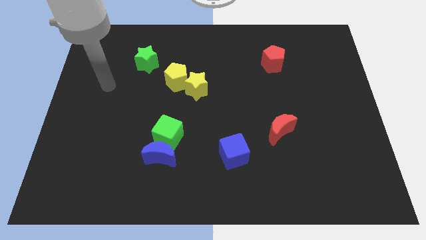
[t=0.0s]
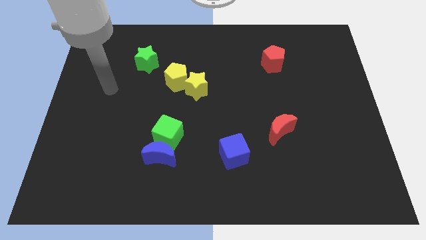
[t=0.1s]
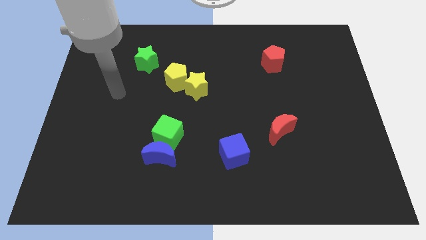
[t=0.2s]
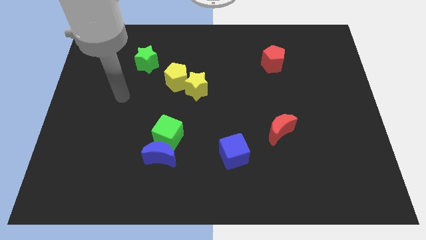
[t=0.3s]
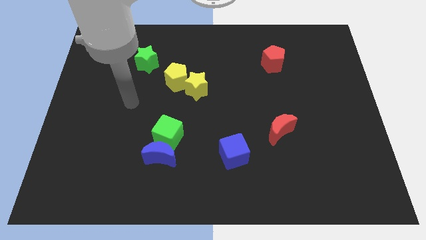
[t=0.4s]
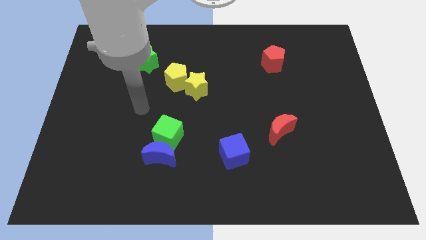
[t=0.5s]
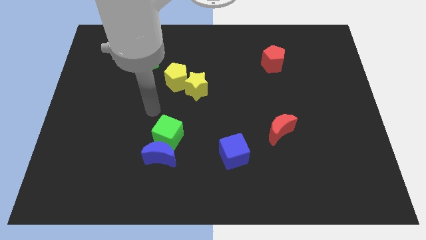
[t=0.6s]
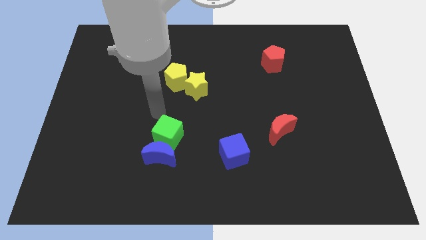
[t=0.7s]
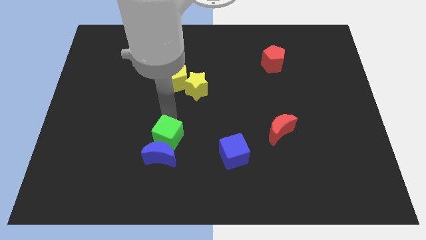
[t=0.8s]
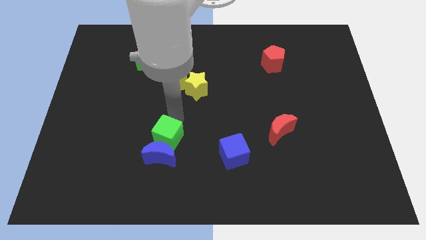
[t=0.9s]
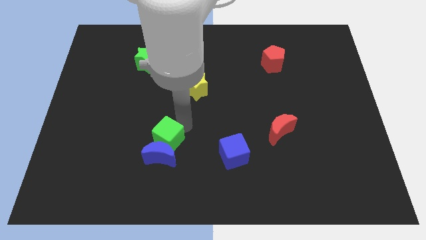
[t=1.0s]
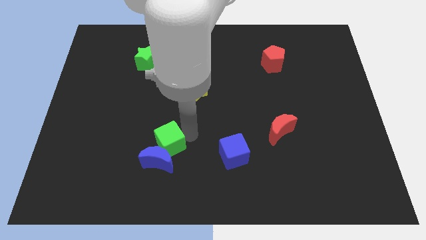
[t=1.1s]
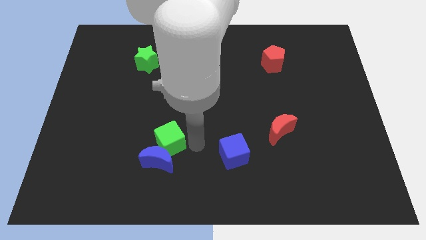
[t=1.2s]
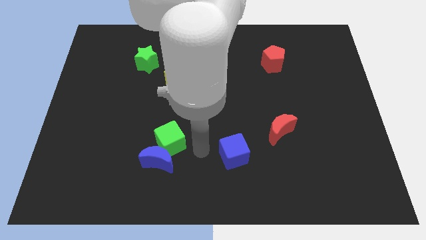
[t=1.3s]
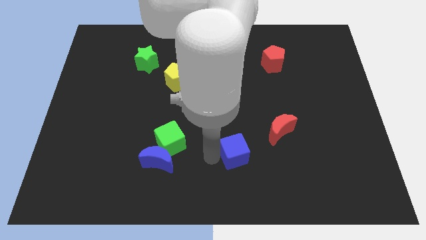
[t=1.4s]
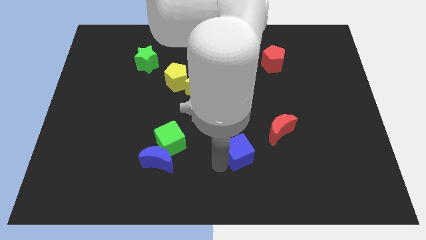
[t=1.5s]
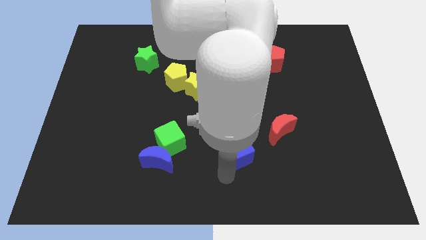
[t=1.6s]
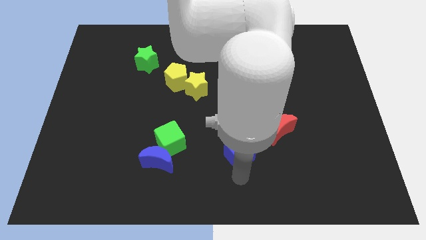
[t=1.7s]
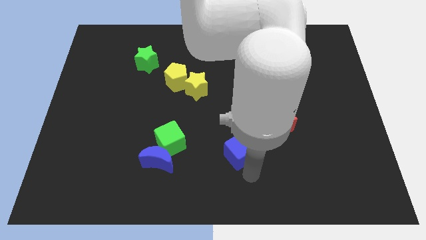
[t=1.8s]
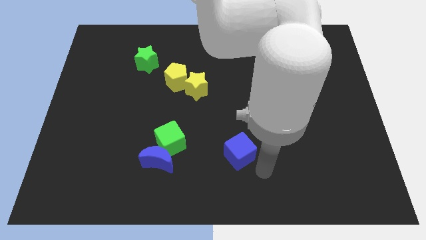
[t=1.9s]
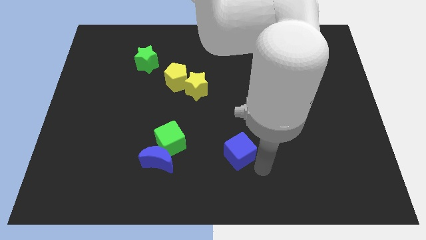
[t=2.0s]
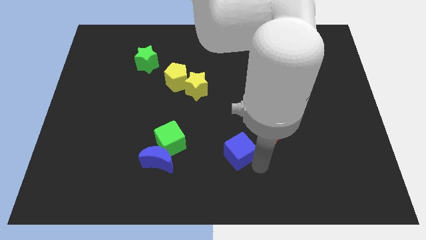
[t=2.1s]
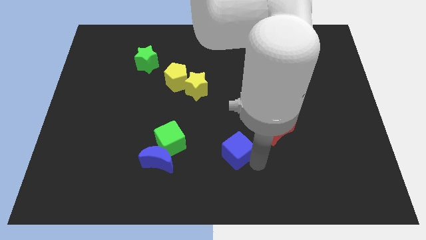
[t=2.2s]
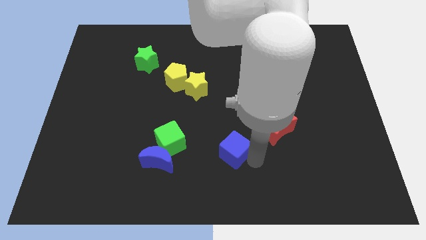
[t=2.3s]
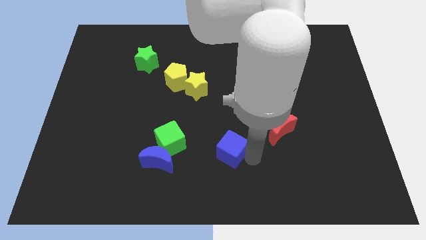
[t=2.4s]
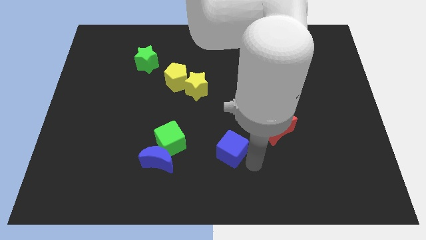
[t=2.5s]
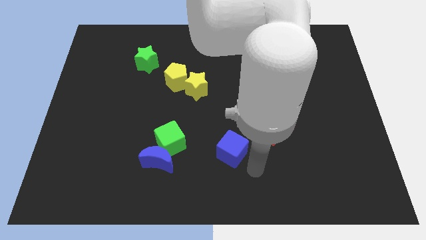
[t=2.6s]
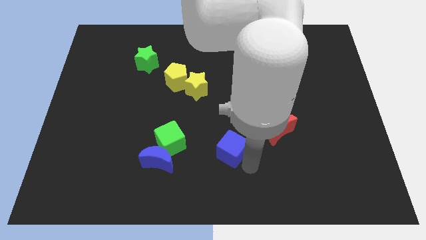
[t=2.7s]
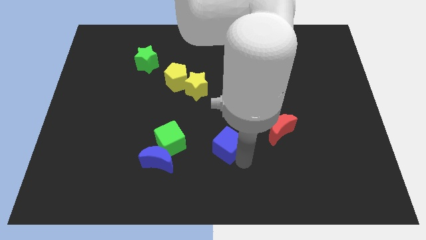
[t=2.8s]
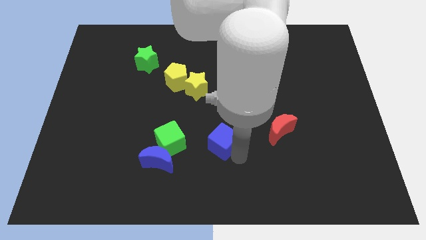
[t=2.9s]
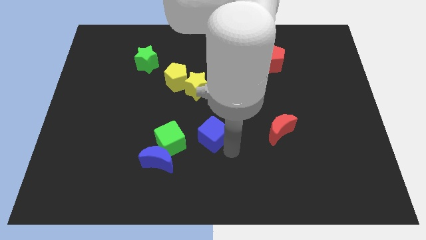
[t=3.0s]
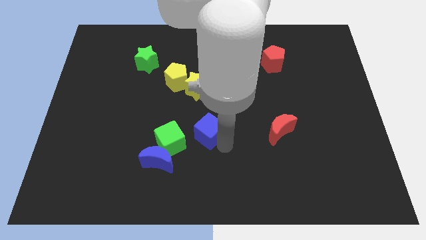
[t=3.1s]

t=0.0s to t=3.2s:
slightly move the blue cube diagonally upwards and left

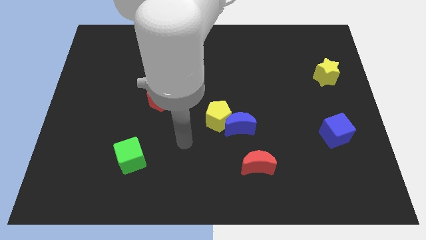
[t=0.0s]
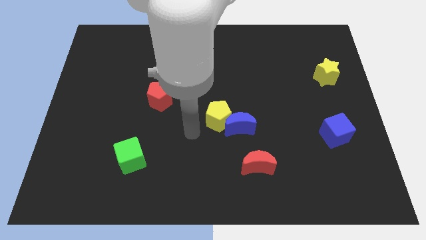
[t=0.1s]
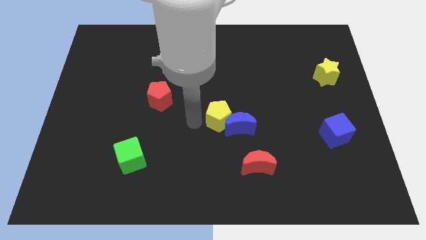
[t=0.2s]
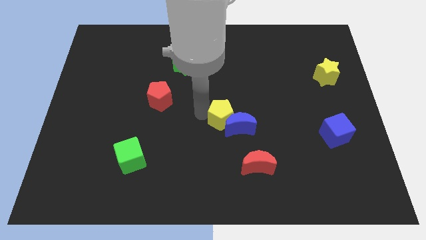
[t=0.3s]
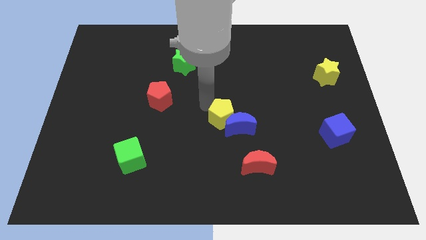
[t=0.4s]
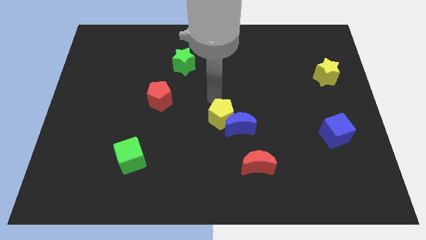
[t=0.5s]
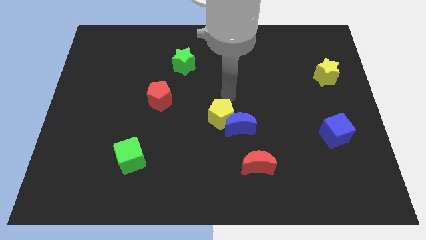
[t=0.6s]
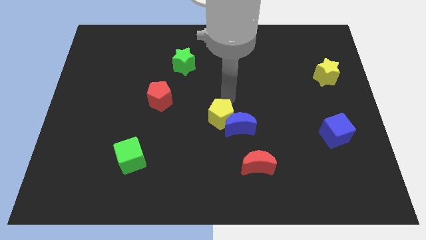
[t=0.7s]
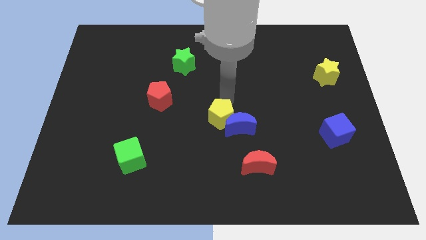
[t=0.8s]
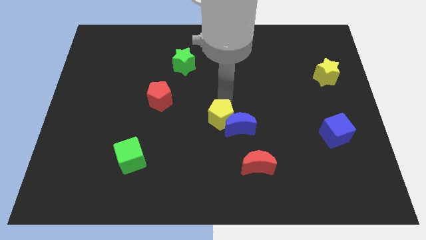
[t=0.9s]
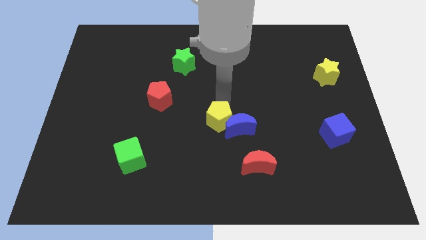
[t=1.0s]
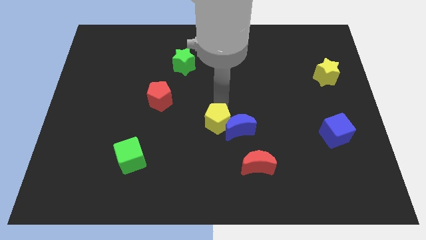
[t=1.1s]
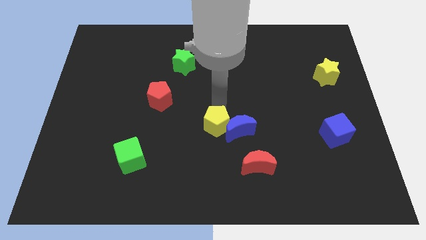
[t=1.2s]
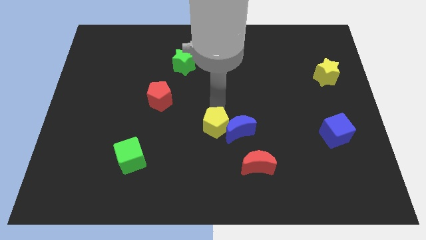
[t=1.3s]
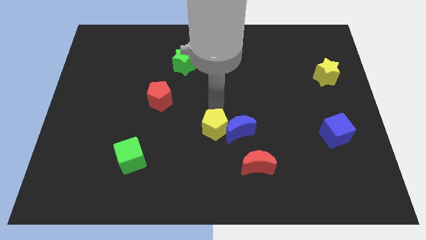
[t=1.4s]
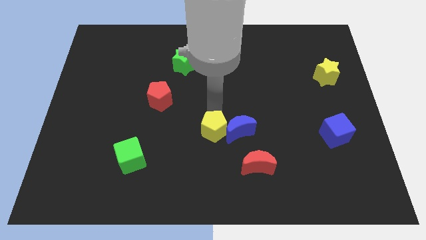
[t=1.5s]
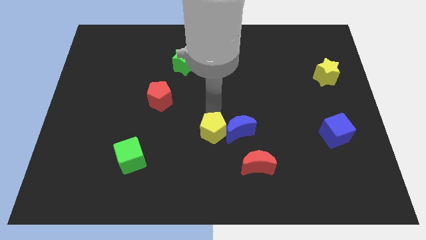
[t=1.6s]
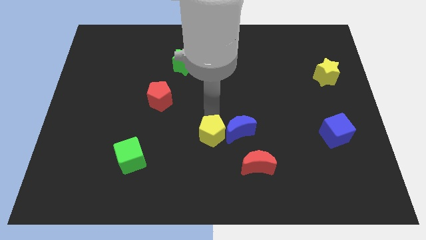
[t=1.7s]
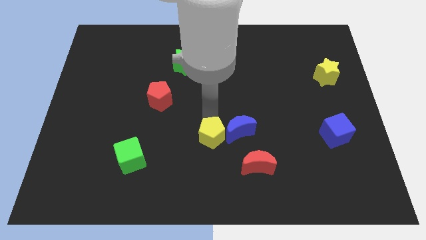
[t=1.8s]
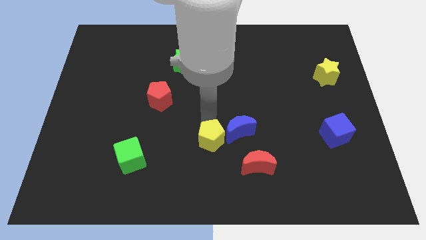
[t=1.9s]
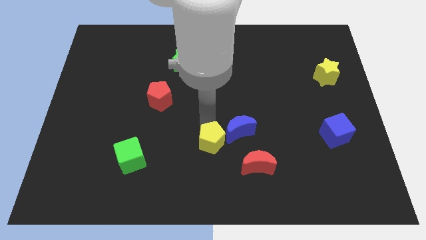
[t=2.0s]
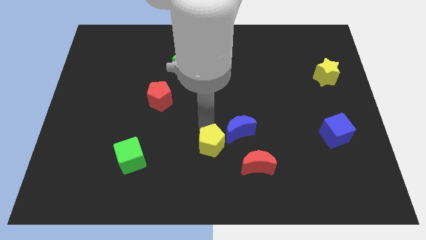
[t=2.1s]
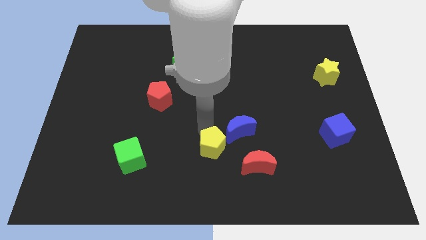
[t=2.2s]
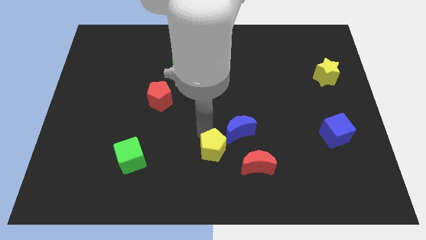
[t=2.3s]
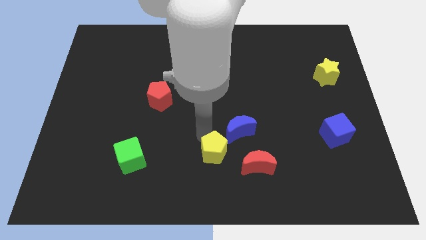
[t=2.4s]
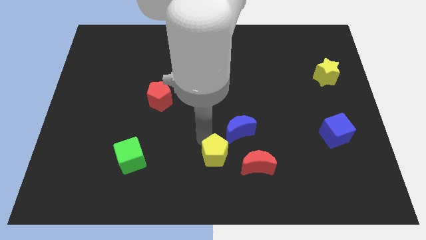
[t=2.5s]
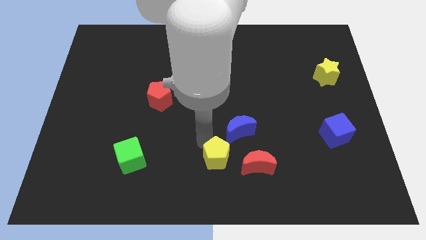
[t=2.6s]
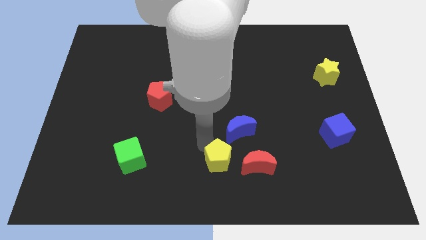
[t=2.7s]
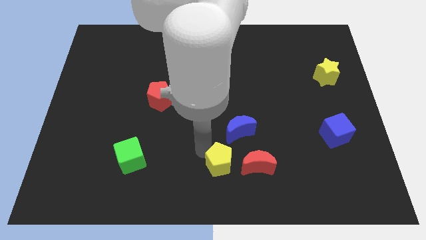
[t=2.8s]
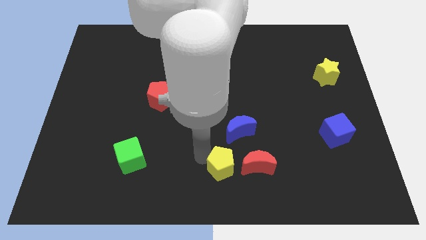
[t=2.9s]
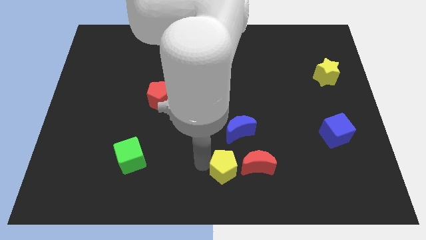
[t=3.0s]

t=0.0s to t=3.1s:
slide the yellow pentagon a bit downwards and then to the right

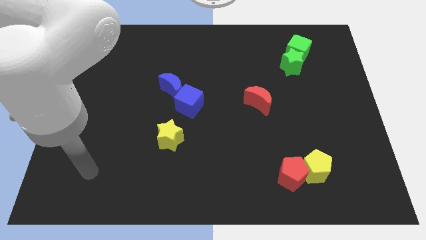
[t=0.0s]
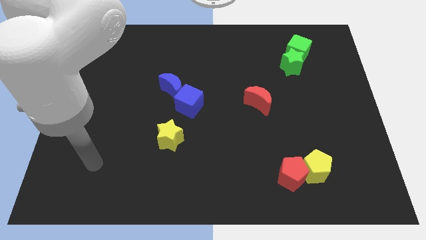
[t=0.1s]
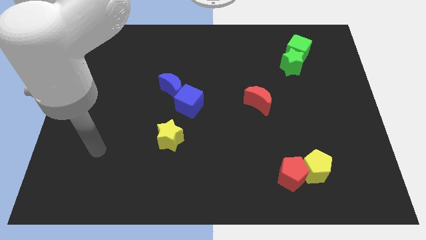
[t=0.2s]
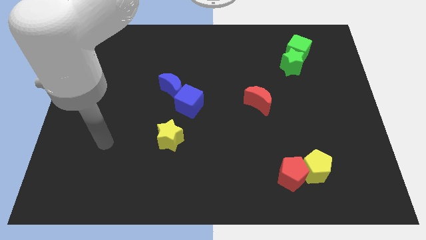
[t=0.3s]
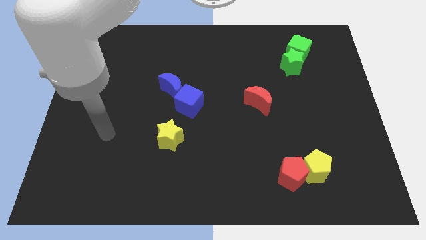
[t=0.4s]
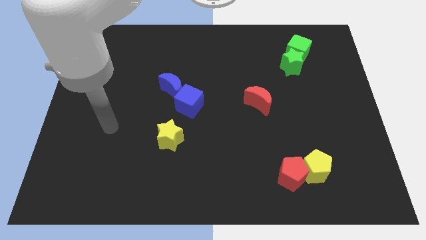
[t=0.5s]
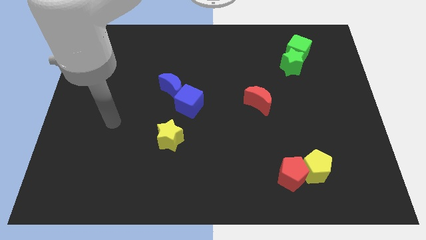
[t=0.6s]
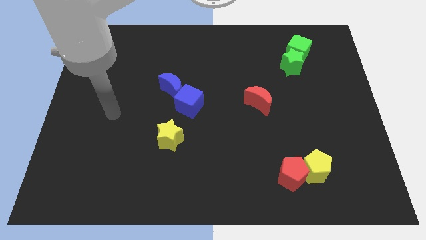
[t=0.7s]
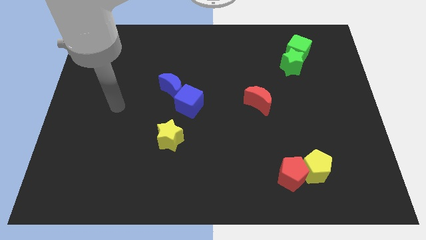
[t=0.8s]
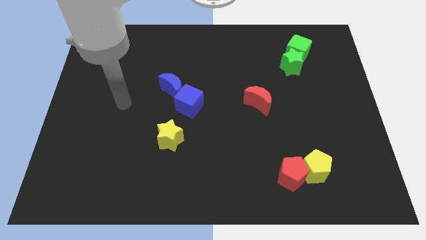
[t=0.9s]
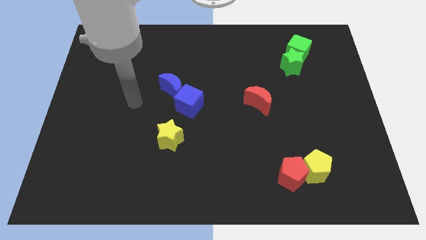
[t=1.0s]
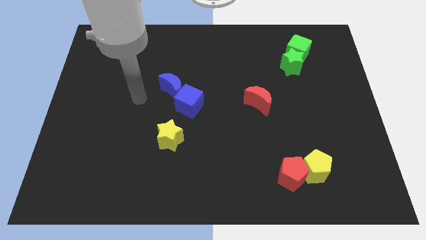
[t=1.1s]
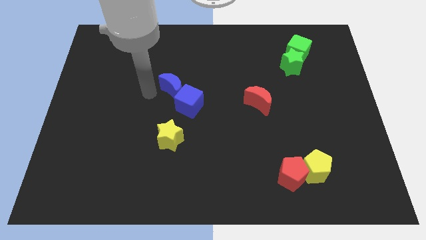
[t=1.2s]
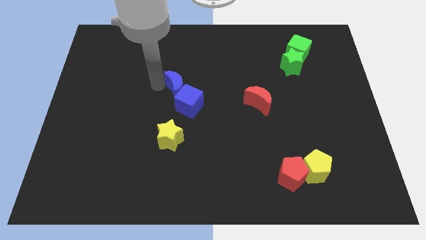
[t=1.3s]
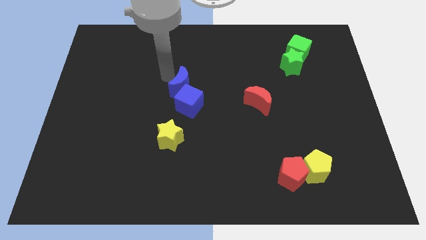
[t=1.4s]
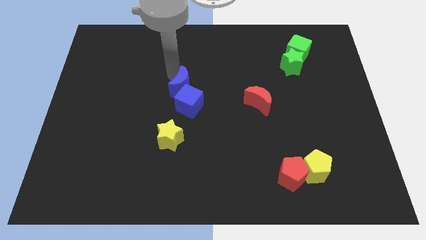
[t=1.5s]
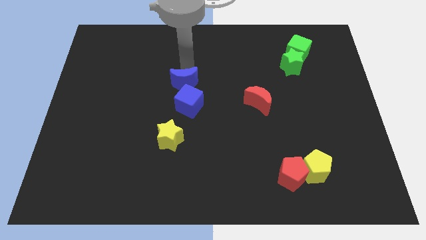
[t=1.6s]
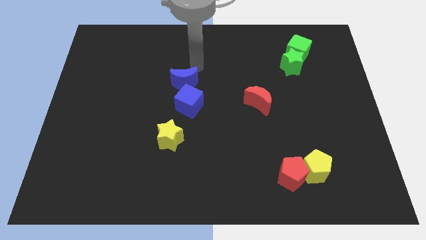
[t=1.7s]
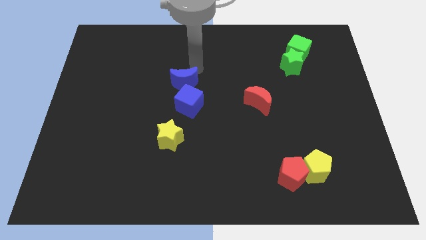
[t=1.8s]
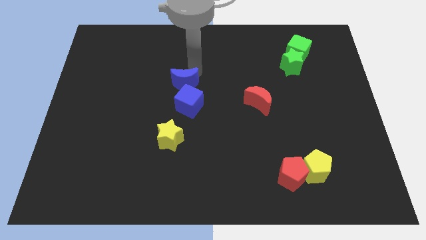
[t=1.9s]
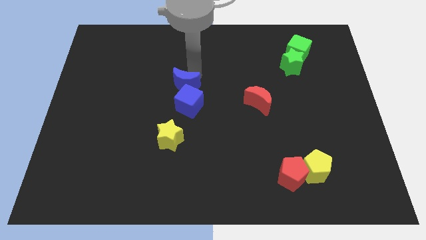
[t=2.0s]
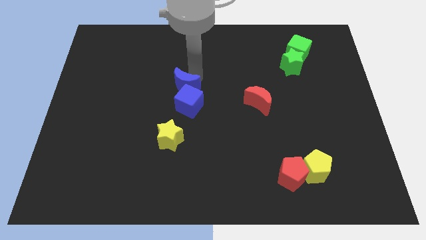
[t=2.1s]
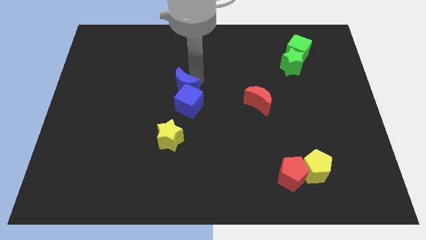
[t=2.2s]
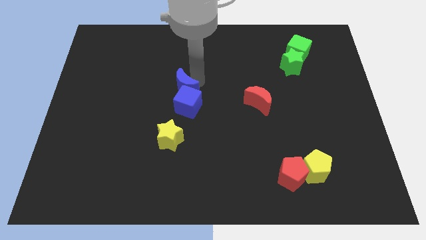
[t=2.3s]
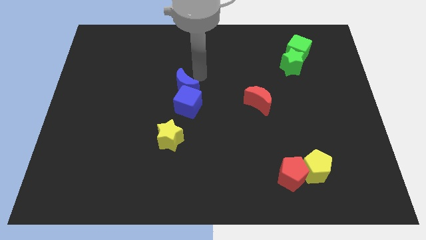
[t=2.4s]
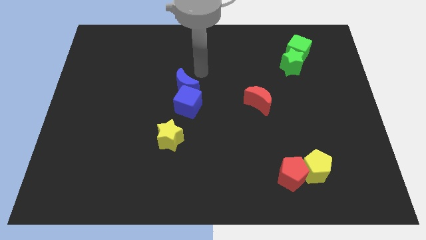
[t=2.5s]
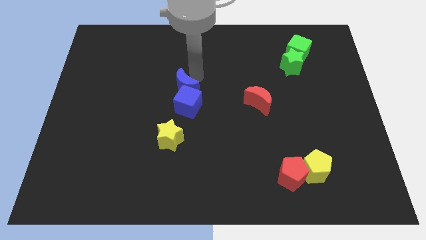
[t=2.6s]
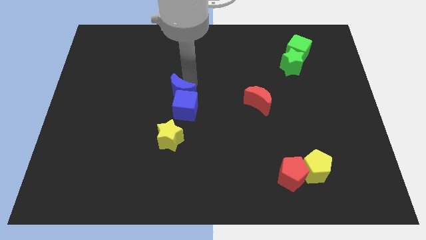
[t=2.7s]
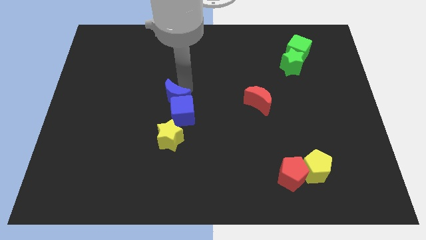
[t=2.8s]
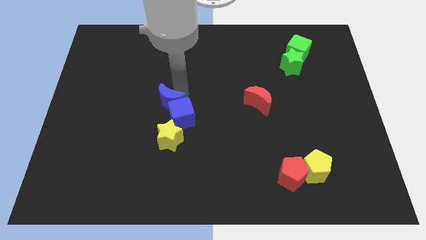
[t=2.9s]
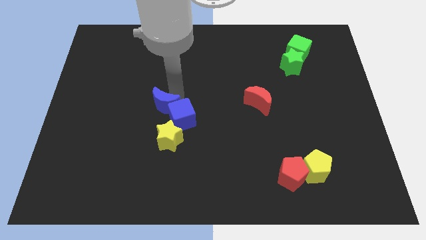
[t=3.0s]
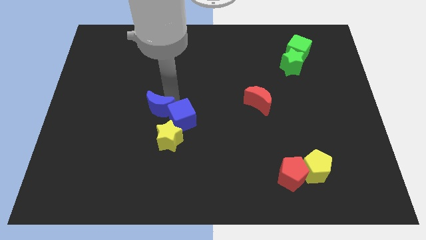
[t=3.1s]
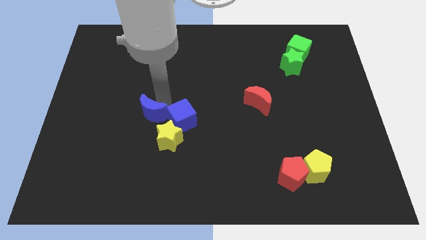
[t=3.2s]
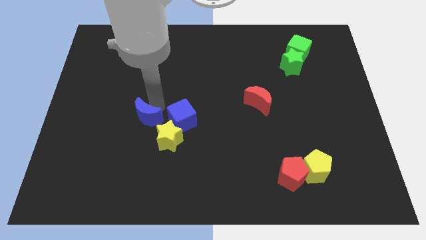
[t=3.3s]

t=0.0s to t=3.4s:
move the blue moon down a little
